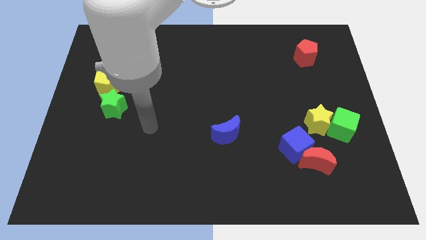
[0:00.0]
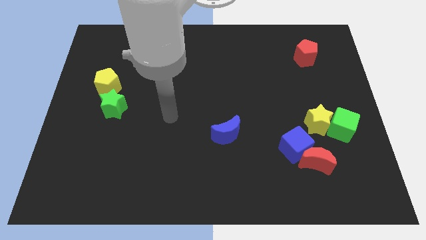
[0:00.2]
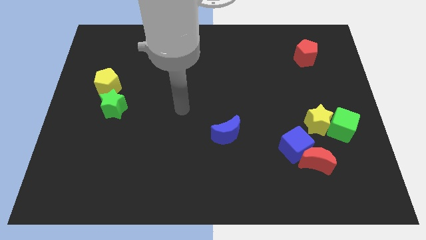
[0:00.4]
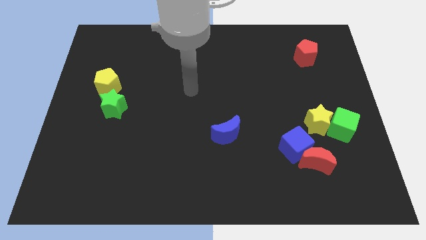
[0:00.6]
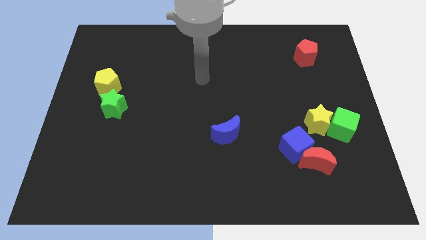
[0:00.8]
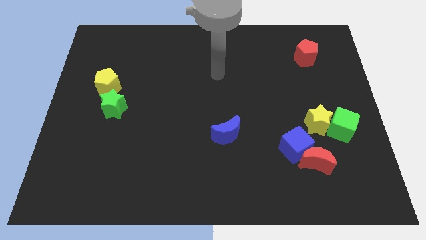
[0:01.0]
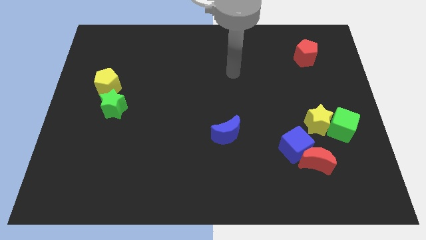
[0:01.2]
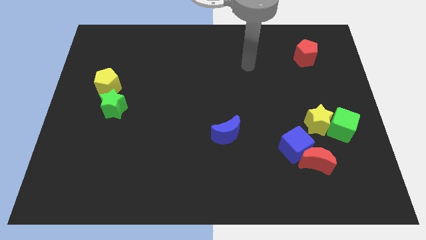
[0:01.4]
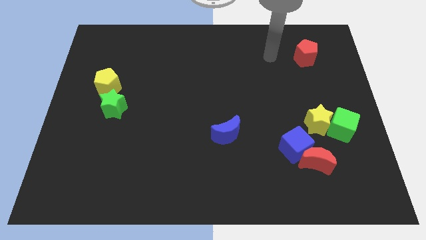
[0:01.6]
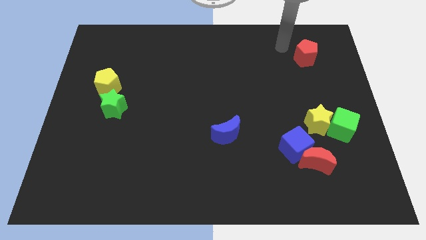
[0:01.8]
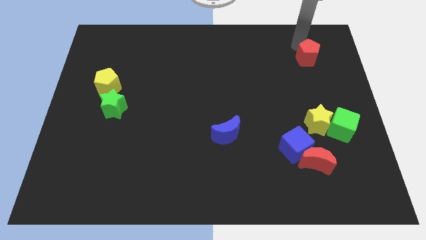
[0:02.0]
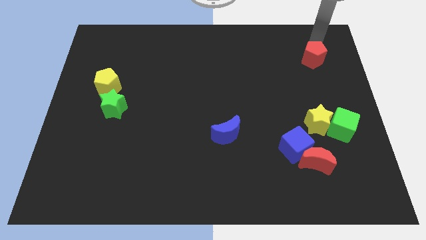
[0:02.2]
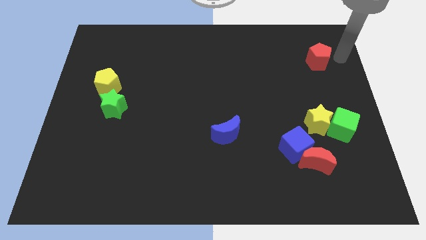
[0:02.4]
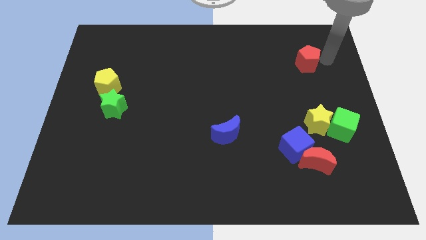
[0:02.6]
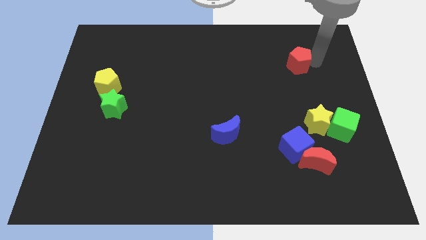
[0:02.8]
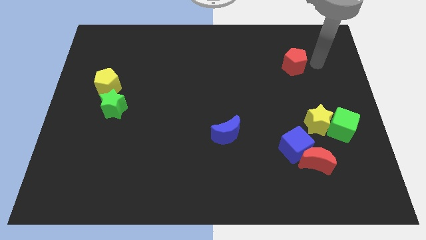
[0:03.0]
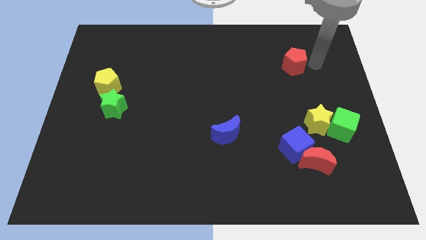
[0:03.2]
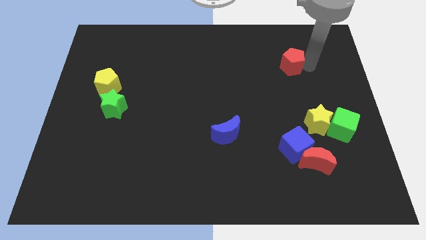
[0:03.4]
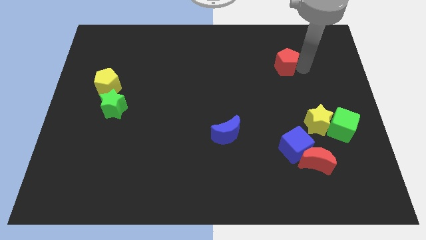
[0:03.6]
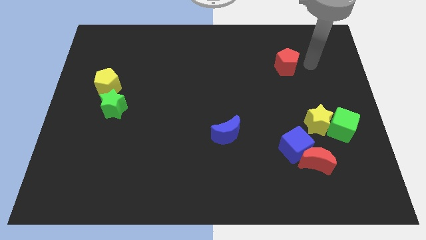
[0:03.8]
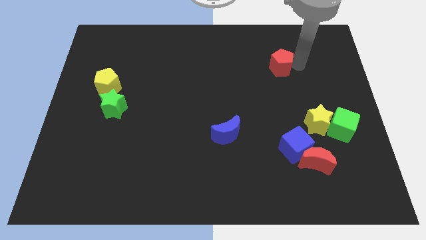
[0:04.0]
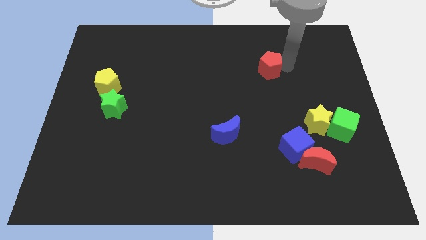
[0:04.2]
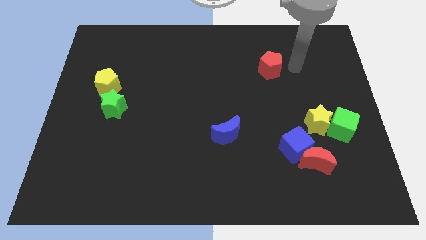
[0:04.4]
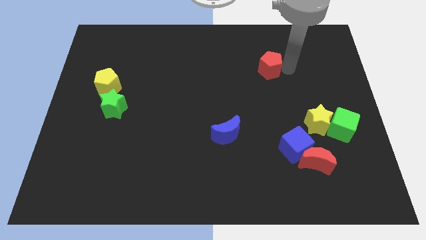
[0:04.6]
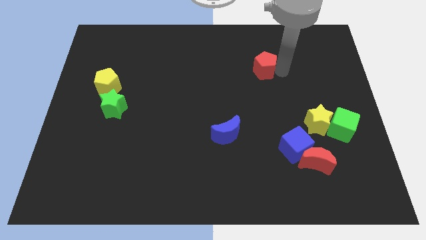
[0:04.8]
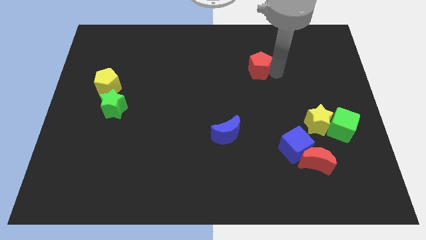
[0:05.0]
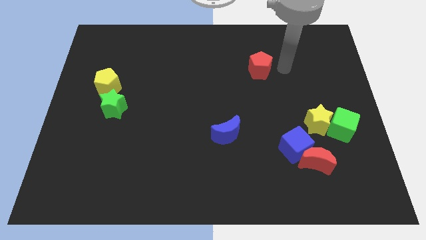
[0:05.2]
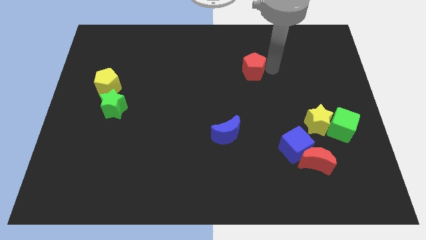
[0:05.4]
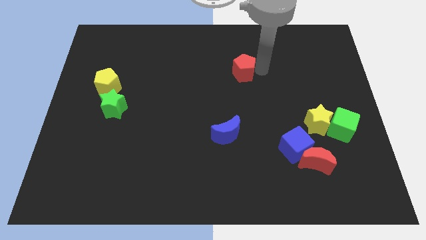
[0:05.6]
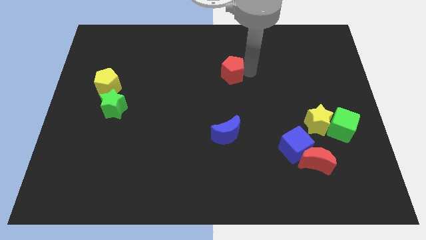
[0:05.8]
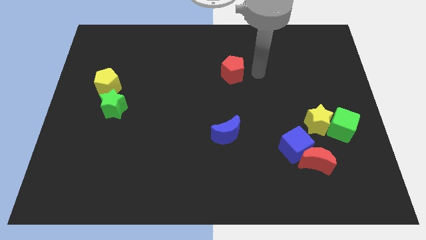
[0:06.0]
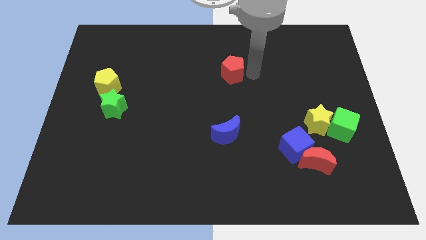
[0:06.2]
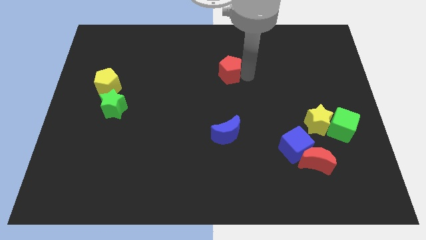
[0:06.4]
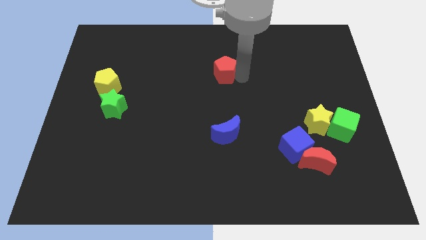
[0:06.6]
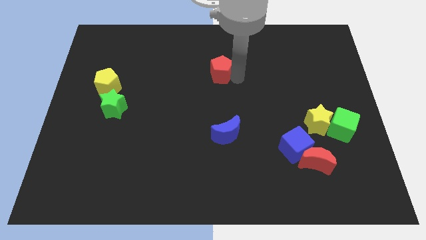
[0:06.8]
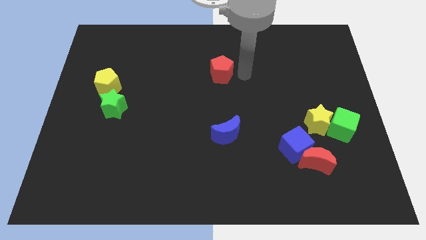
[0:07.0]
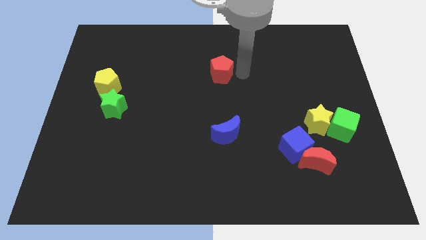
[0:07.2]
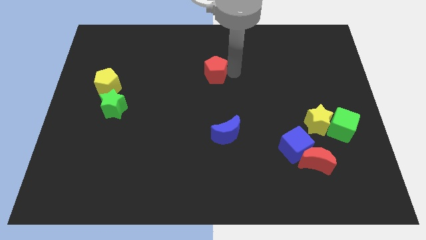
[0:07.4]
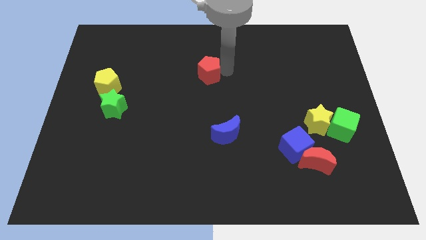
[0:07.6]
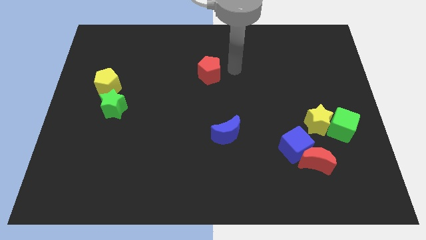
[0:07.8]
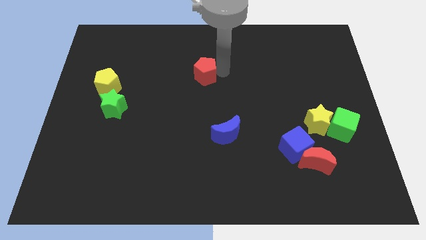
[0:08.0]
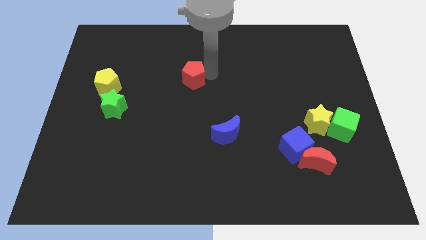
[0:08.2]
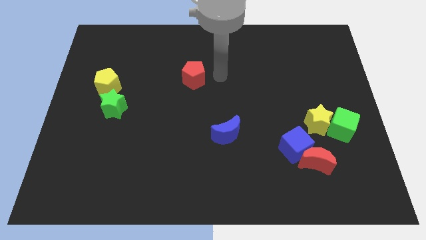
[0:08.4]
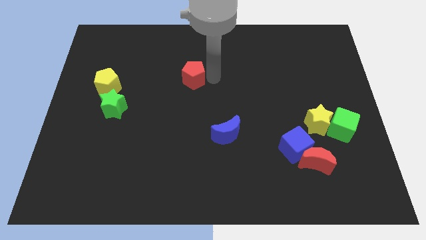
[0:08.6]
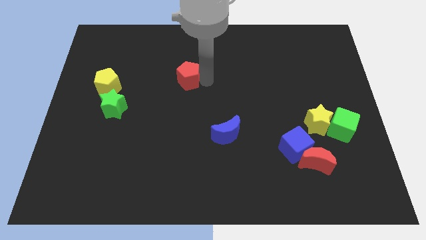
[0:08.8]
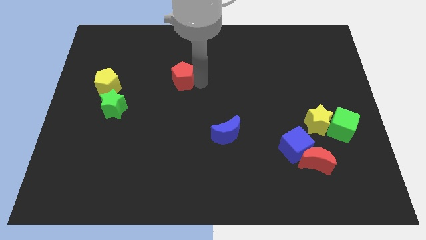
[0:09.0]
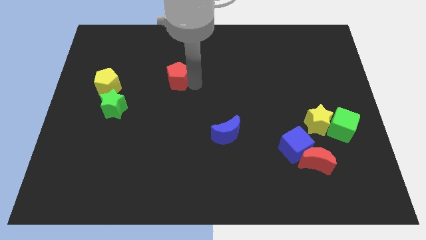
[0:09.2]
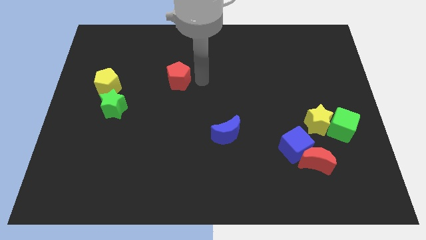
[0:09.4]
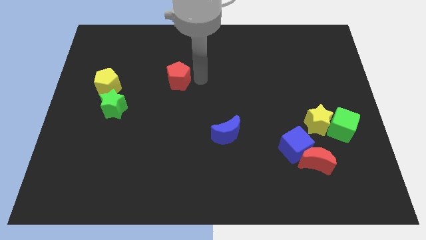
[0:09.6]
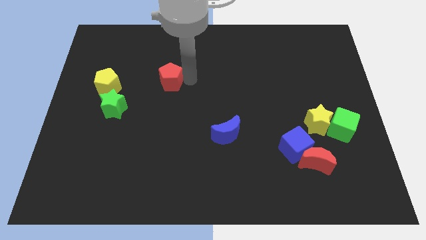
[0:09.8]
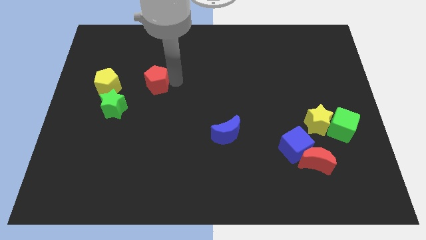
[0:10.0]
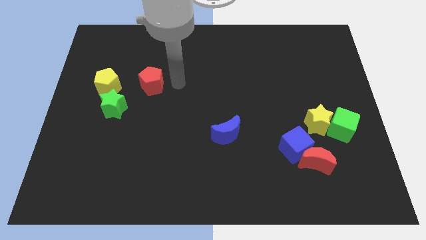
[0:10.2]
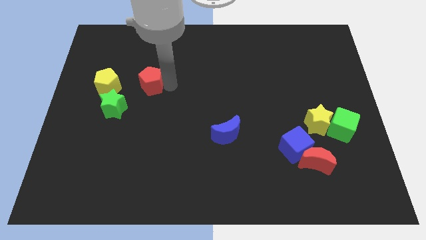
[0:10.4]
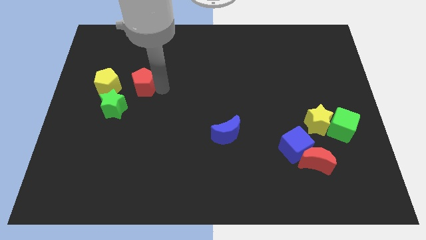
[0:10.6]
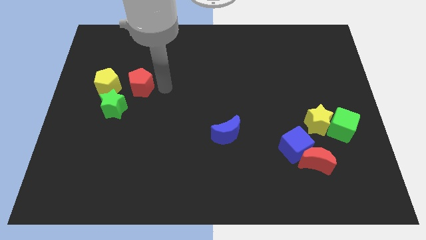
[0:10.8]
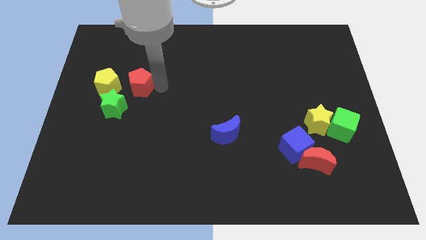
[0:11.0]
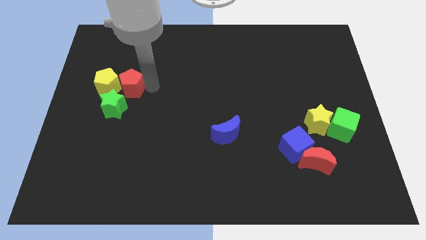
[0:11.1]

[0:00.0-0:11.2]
move the red pentagon towards the yellow pentagon

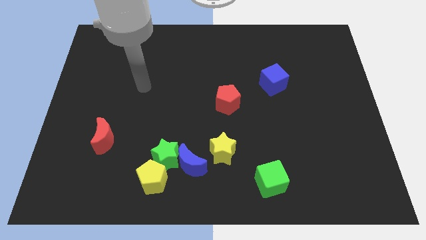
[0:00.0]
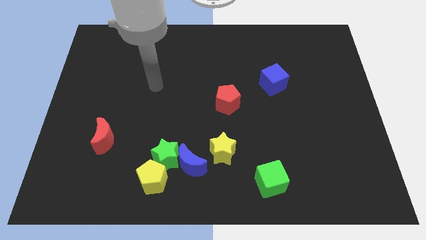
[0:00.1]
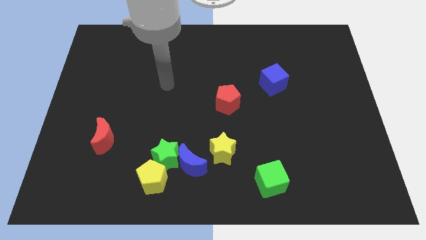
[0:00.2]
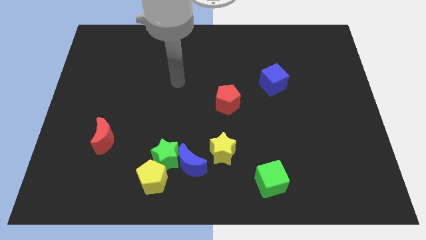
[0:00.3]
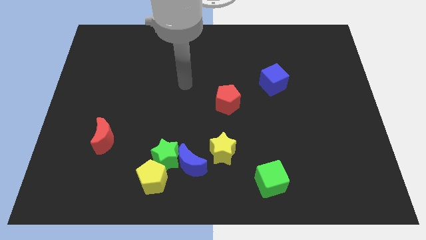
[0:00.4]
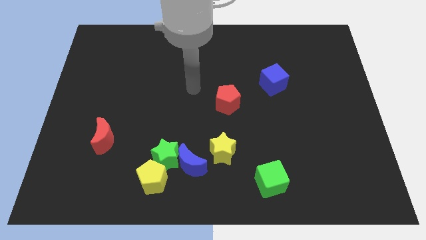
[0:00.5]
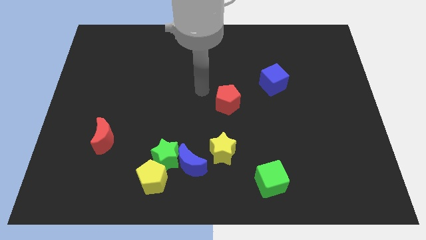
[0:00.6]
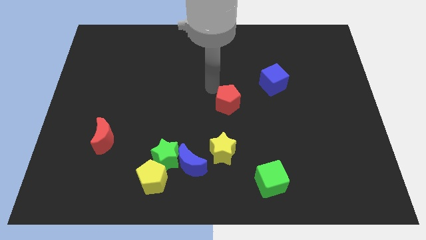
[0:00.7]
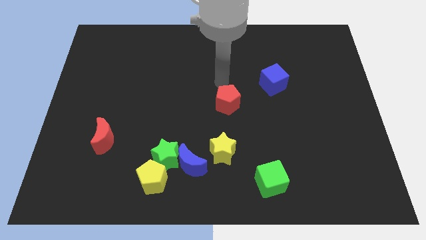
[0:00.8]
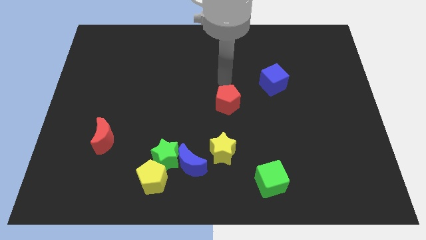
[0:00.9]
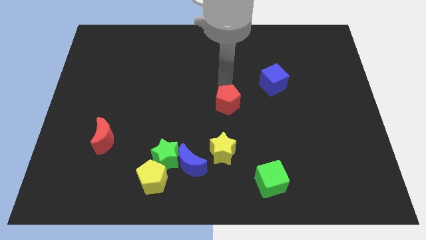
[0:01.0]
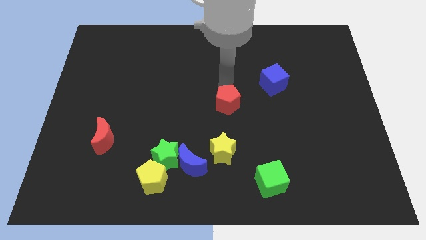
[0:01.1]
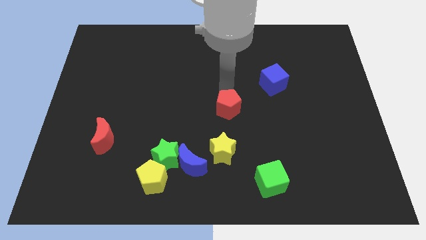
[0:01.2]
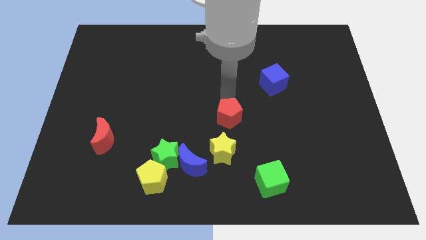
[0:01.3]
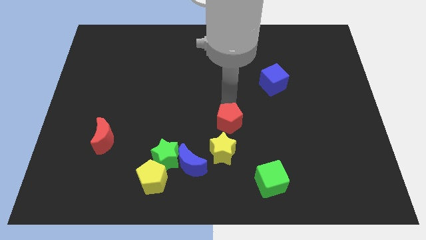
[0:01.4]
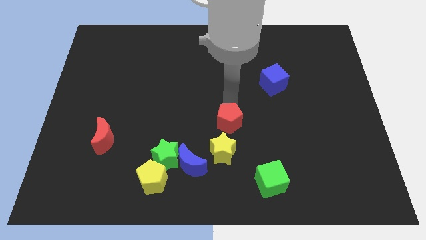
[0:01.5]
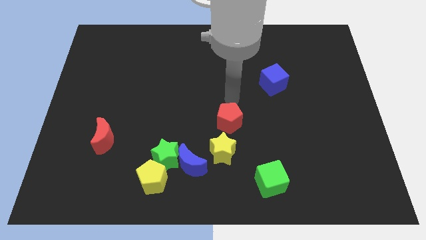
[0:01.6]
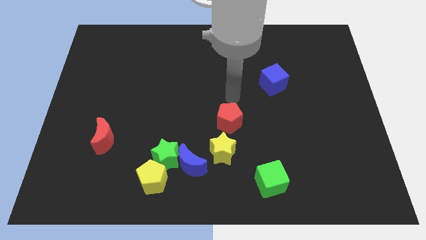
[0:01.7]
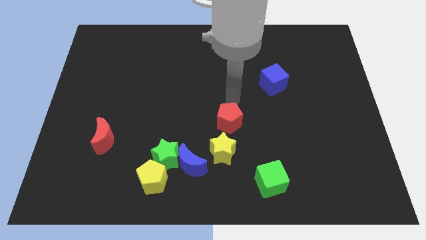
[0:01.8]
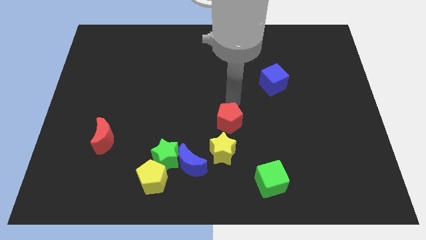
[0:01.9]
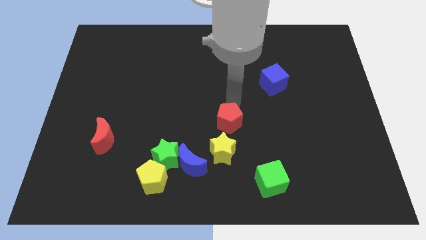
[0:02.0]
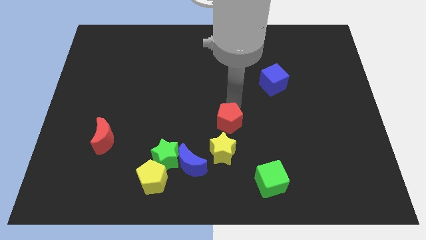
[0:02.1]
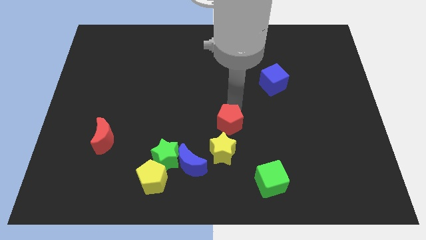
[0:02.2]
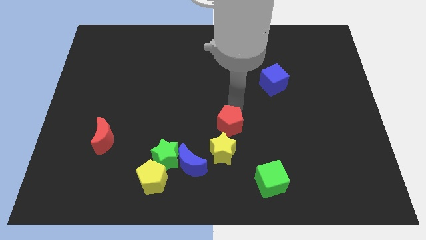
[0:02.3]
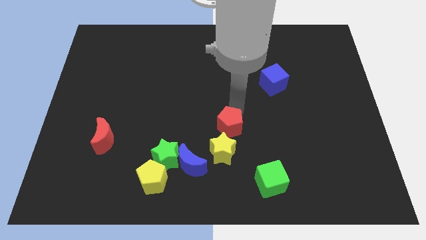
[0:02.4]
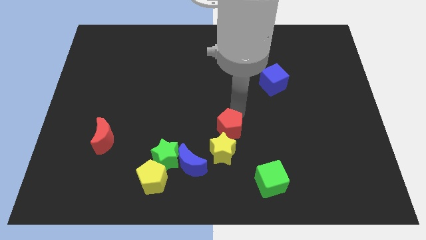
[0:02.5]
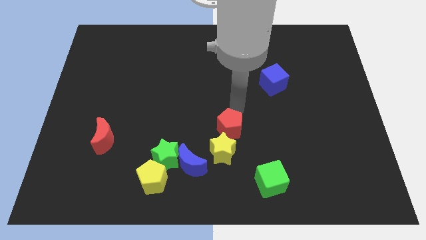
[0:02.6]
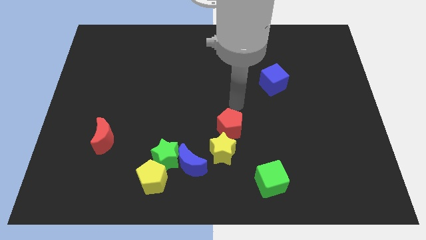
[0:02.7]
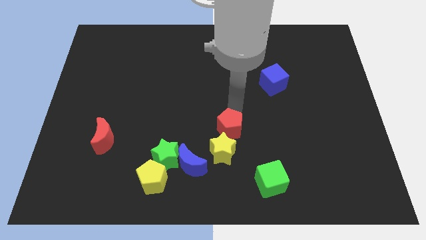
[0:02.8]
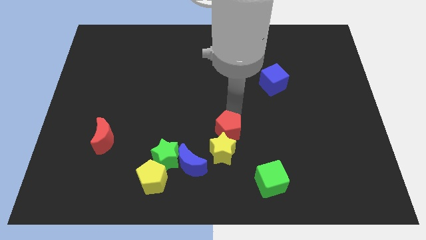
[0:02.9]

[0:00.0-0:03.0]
put the red pentagon next to the yellow star
